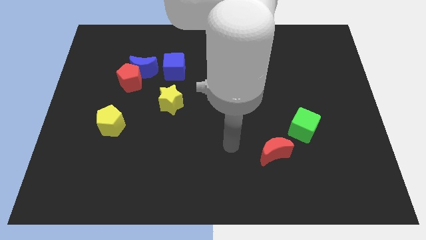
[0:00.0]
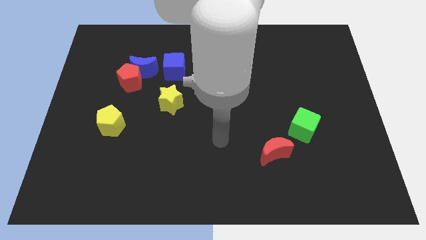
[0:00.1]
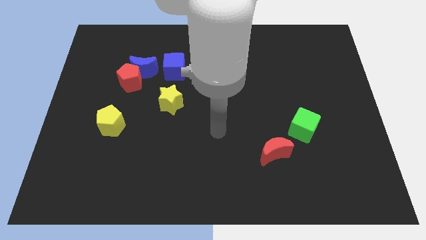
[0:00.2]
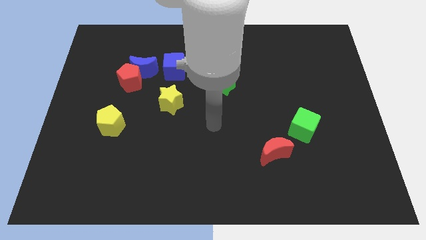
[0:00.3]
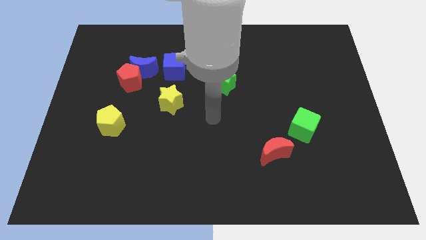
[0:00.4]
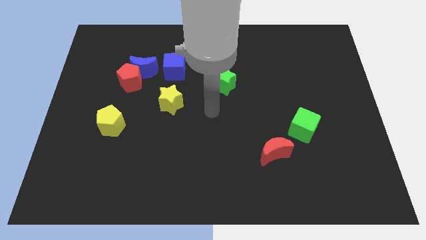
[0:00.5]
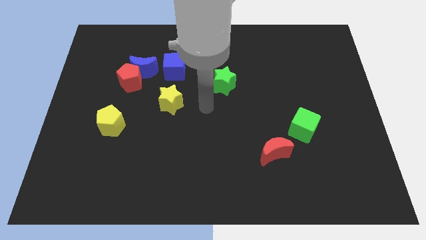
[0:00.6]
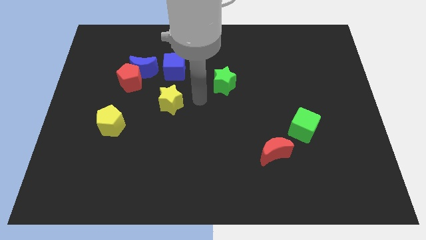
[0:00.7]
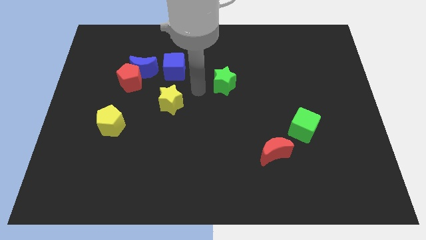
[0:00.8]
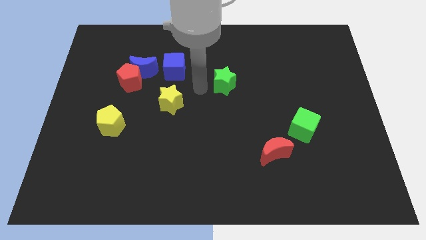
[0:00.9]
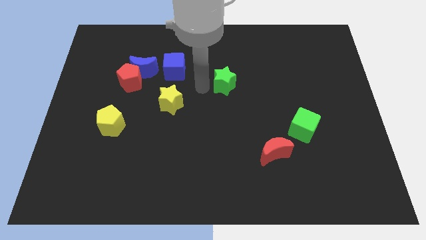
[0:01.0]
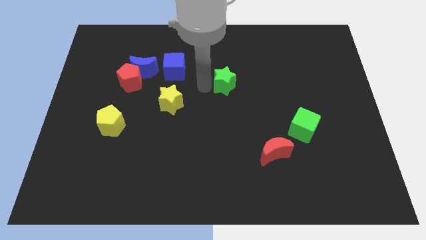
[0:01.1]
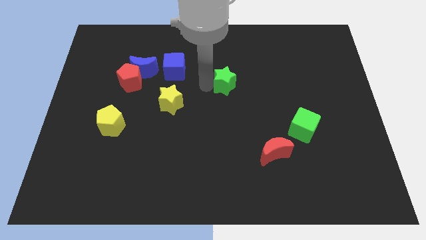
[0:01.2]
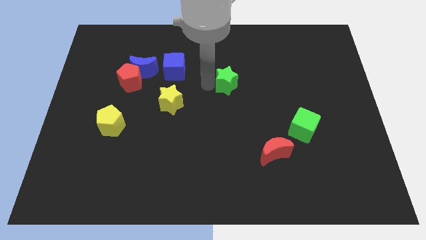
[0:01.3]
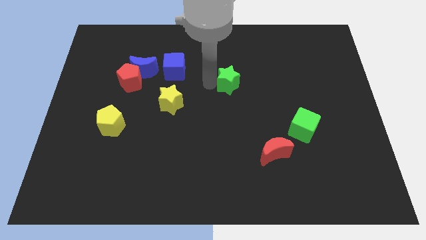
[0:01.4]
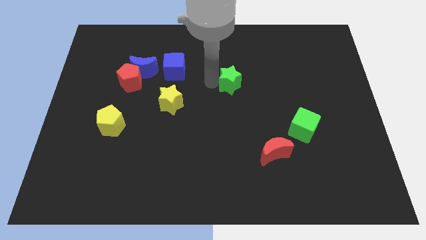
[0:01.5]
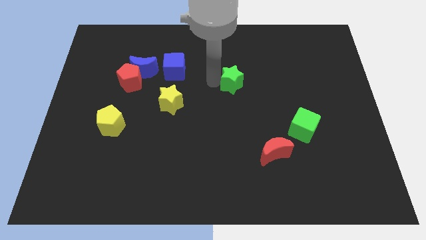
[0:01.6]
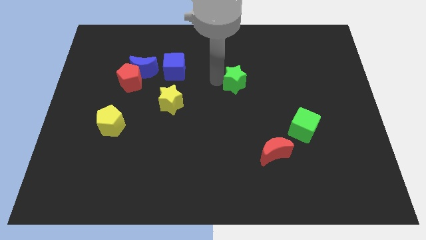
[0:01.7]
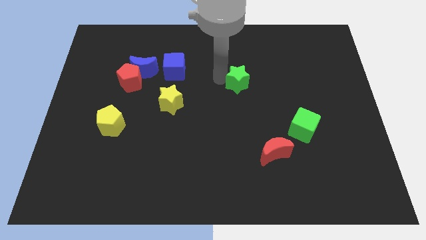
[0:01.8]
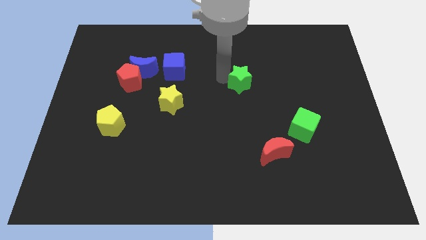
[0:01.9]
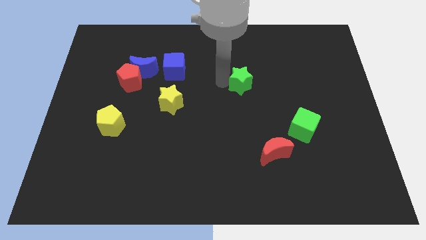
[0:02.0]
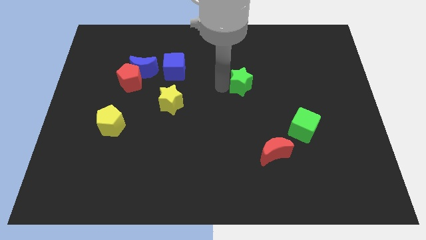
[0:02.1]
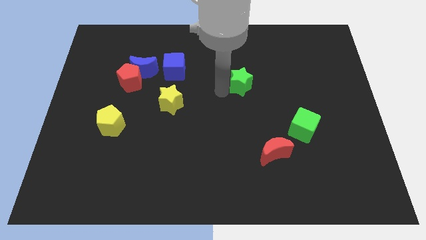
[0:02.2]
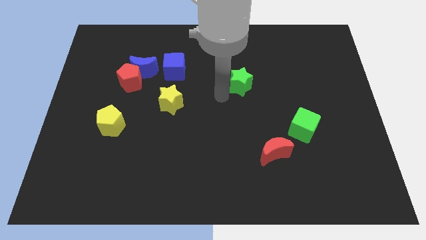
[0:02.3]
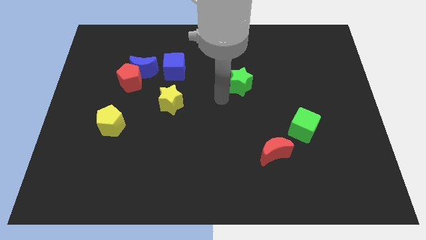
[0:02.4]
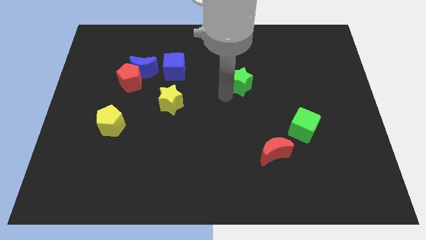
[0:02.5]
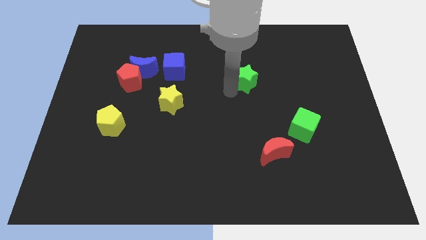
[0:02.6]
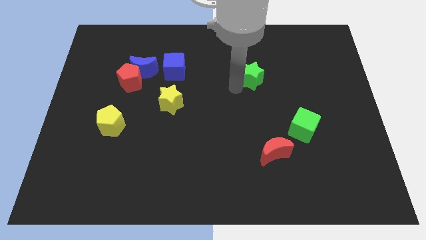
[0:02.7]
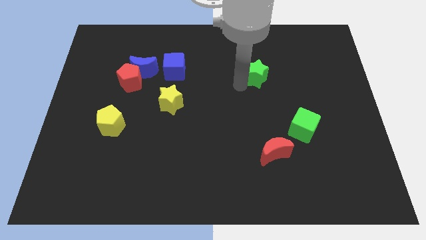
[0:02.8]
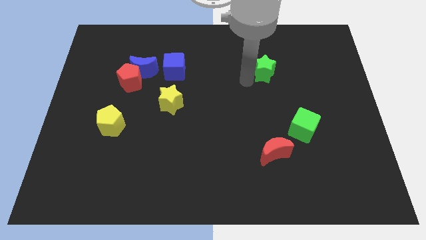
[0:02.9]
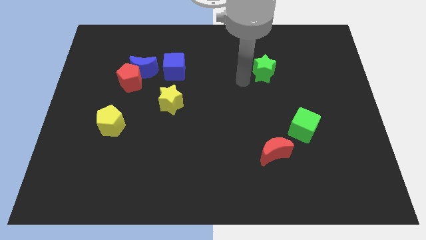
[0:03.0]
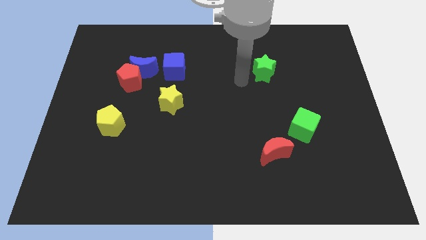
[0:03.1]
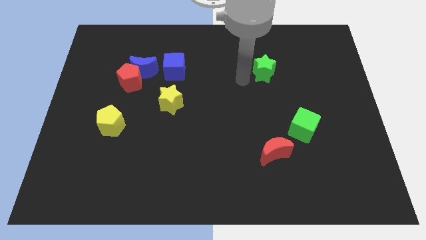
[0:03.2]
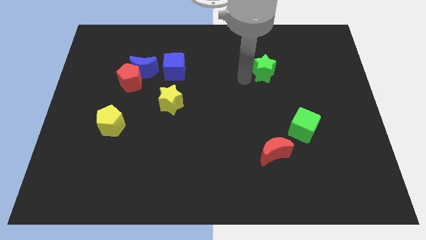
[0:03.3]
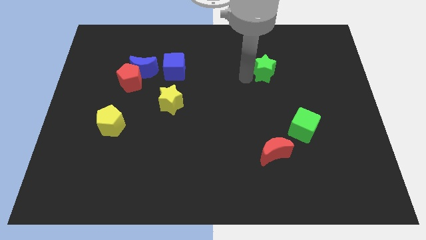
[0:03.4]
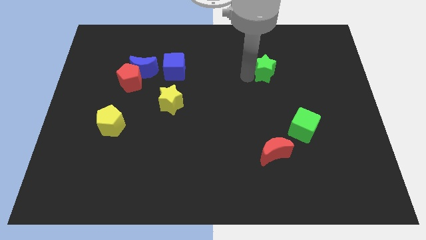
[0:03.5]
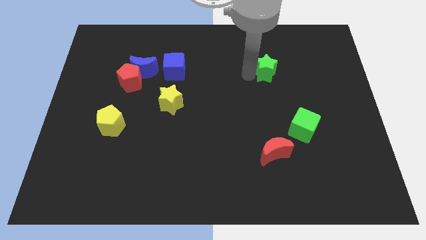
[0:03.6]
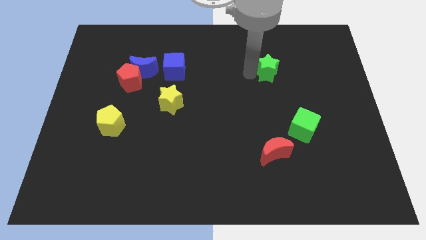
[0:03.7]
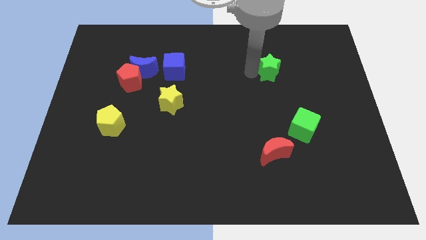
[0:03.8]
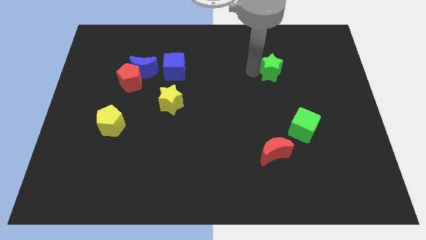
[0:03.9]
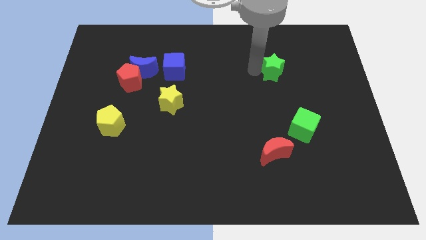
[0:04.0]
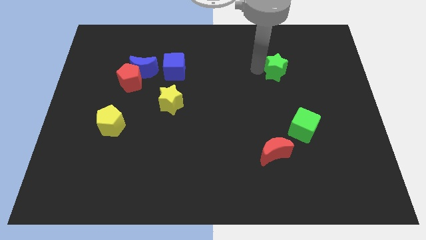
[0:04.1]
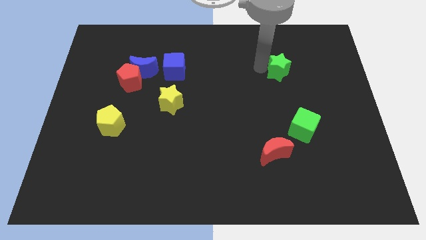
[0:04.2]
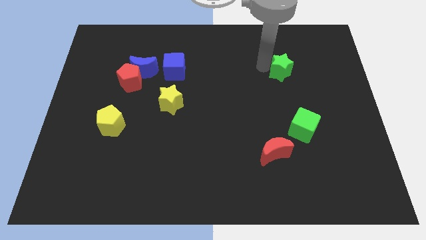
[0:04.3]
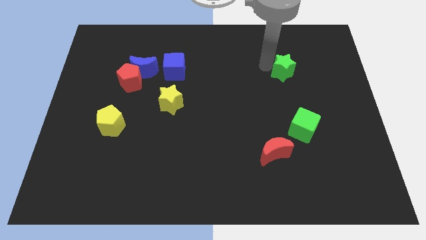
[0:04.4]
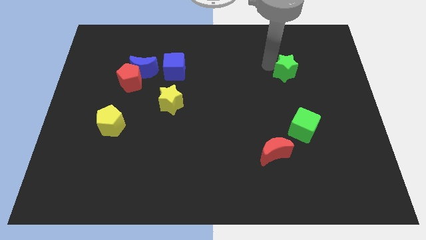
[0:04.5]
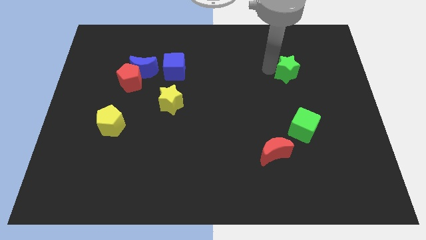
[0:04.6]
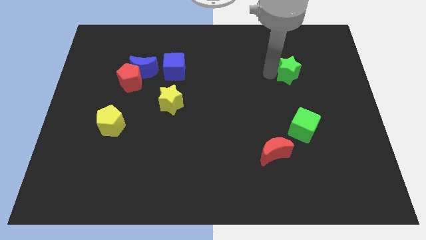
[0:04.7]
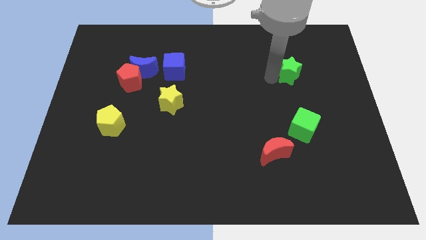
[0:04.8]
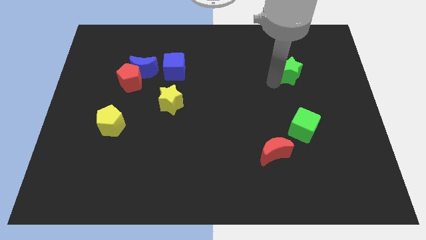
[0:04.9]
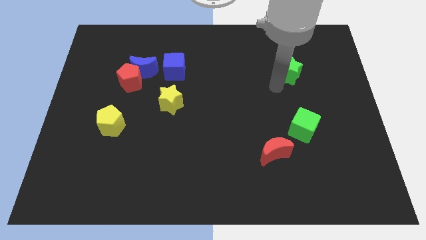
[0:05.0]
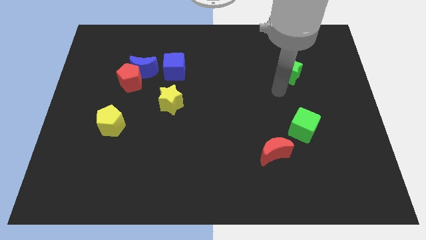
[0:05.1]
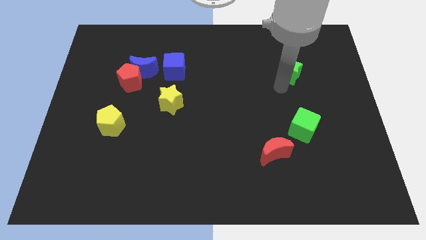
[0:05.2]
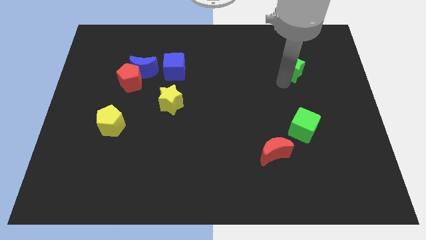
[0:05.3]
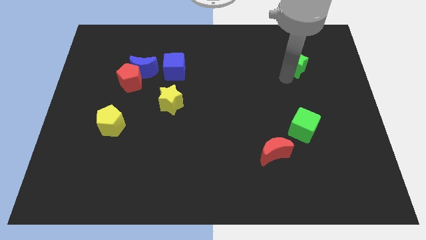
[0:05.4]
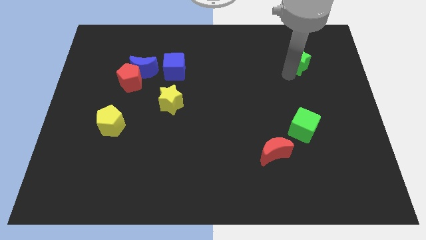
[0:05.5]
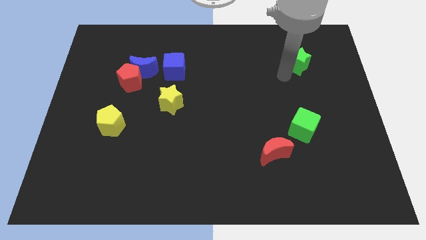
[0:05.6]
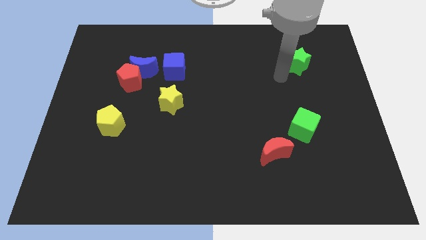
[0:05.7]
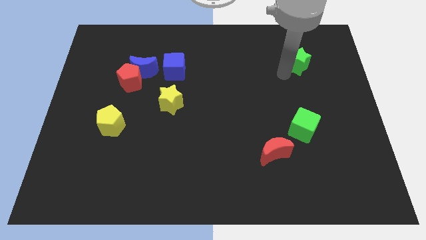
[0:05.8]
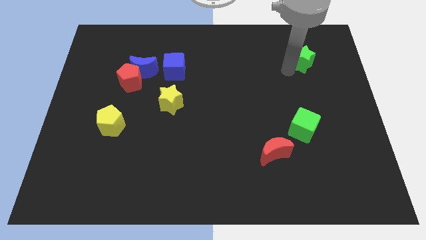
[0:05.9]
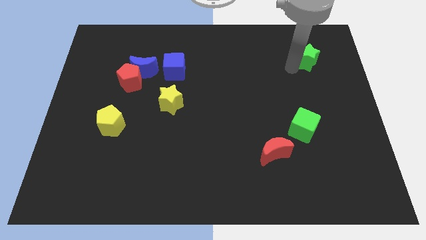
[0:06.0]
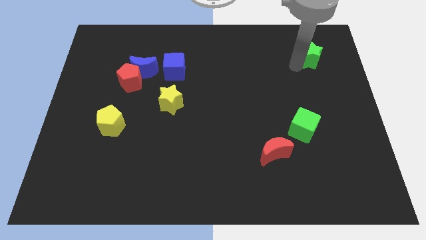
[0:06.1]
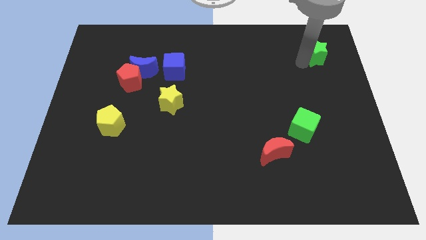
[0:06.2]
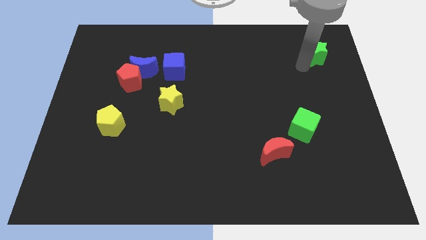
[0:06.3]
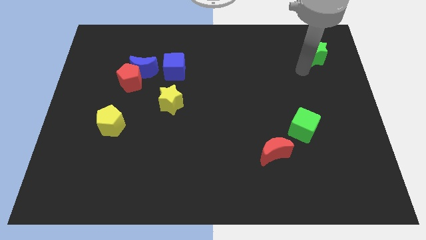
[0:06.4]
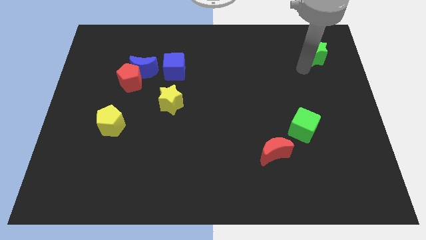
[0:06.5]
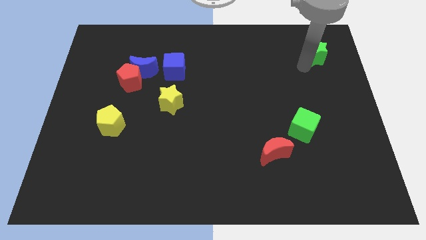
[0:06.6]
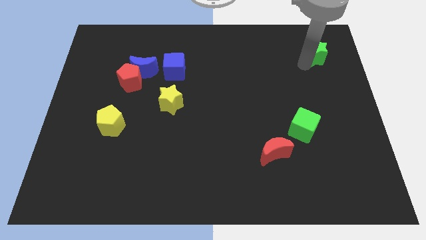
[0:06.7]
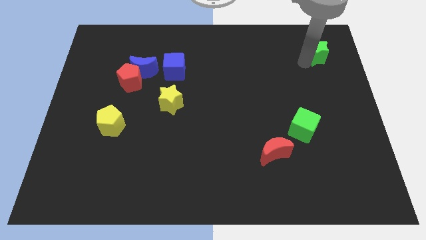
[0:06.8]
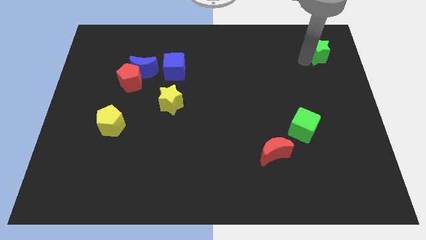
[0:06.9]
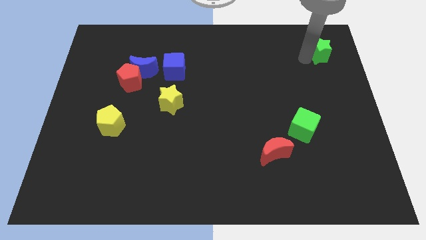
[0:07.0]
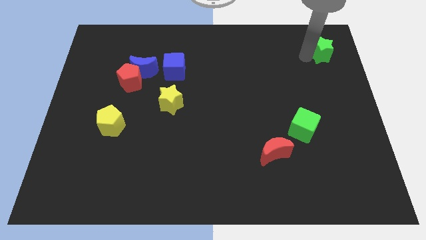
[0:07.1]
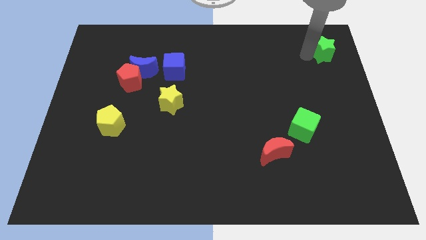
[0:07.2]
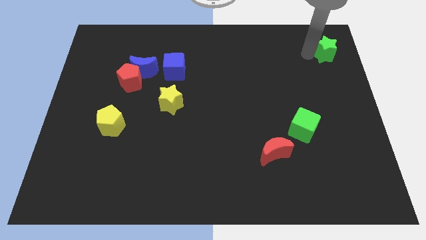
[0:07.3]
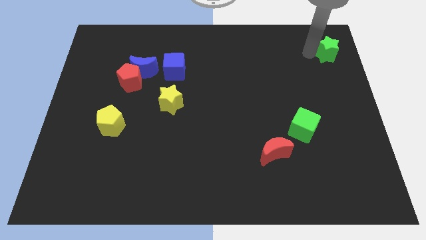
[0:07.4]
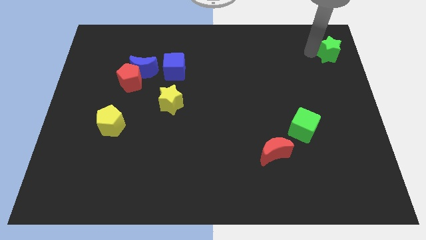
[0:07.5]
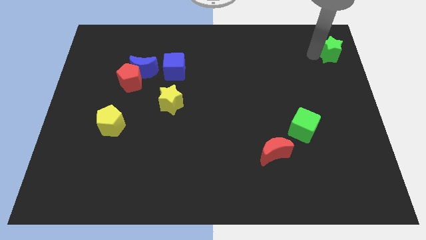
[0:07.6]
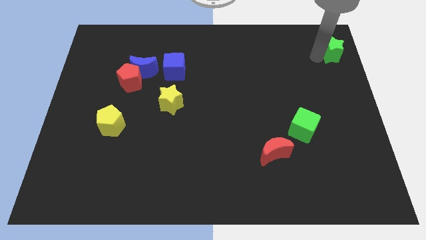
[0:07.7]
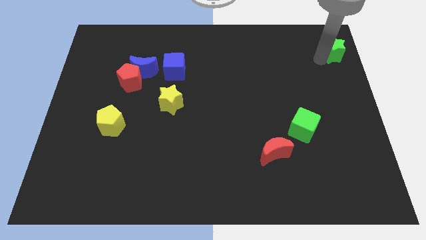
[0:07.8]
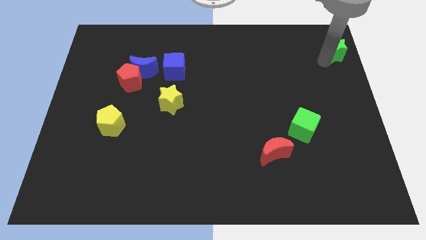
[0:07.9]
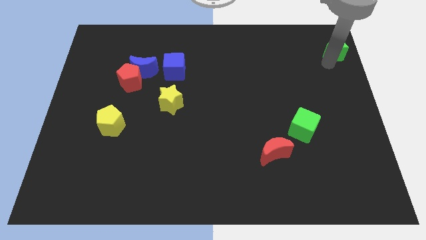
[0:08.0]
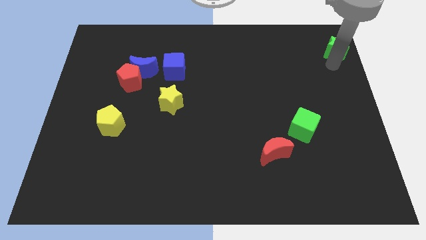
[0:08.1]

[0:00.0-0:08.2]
move the green star to the upper right corner
